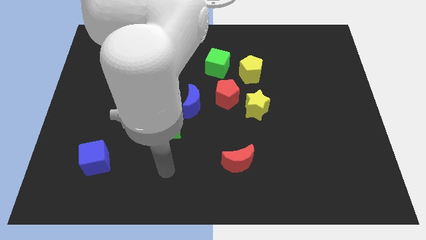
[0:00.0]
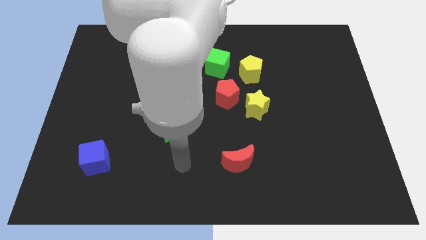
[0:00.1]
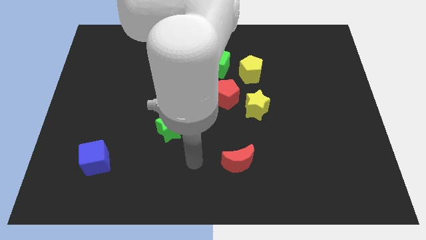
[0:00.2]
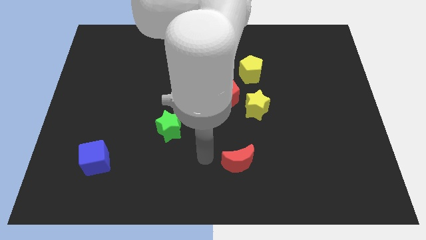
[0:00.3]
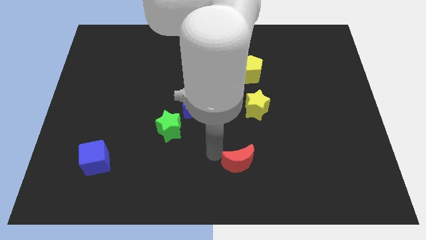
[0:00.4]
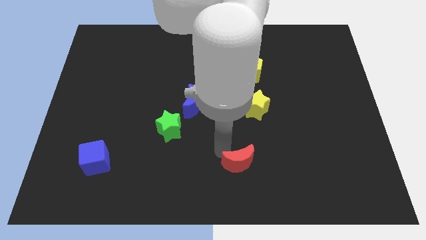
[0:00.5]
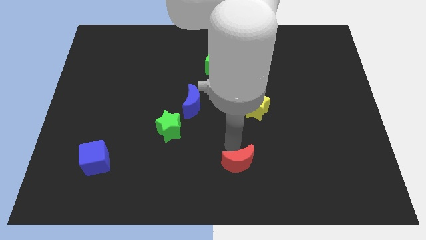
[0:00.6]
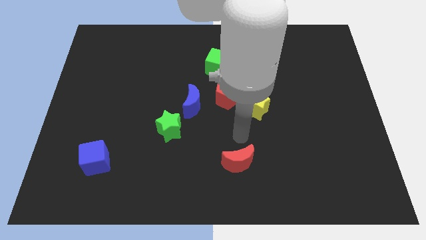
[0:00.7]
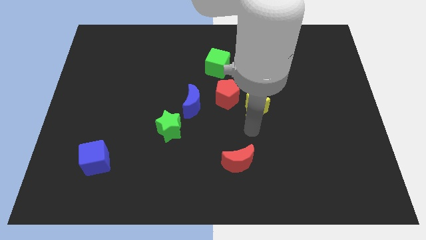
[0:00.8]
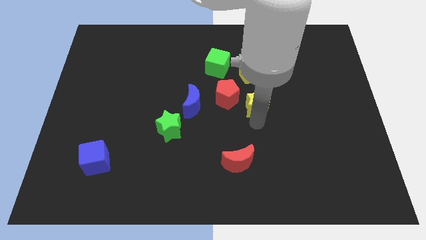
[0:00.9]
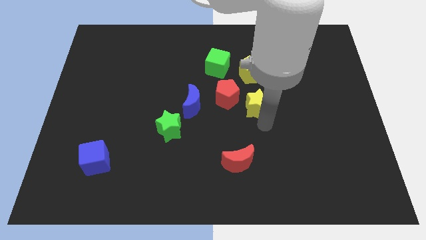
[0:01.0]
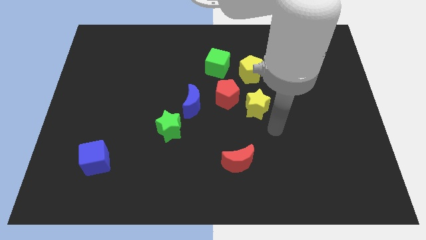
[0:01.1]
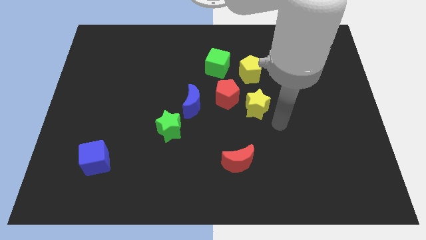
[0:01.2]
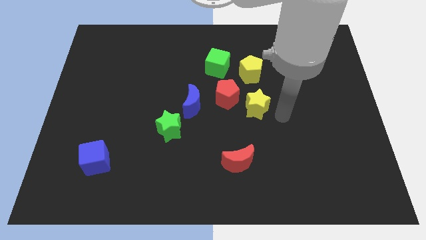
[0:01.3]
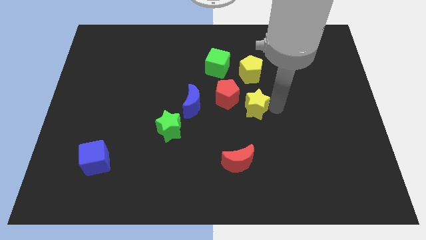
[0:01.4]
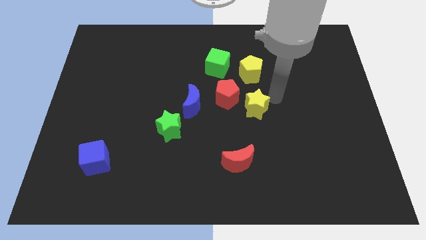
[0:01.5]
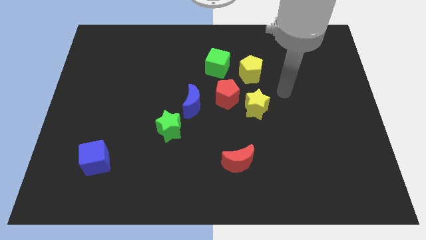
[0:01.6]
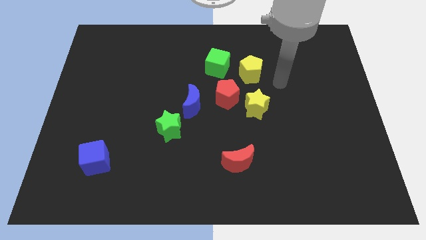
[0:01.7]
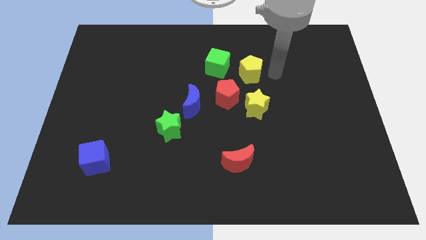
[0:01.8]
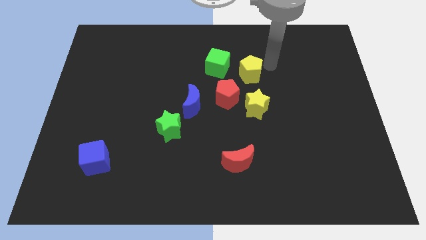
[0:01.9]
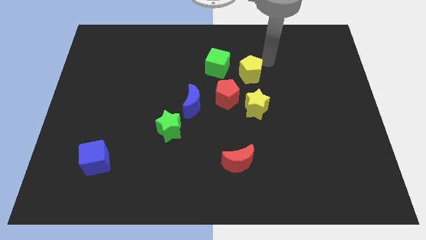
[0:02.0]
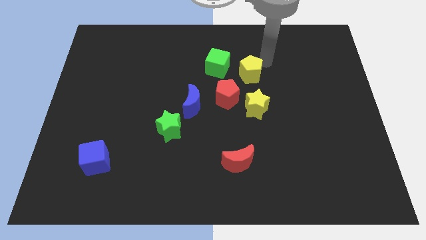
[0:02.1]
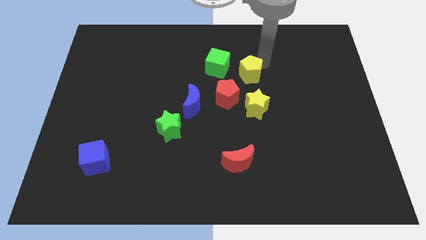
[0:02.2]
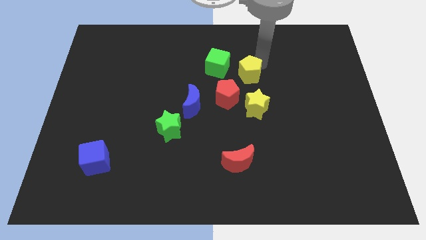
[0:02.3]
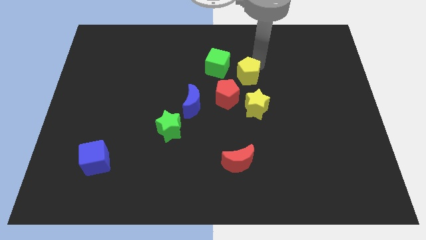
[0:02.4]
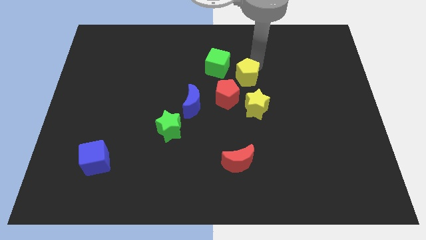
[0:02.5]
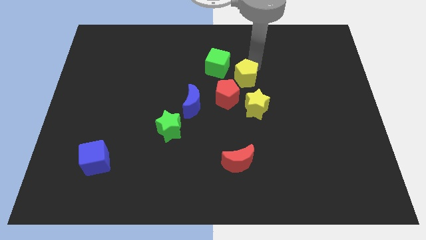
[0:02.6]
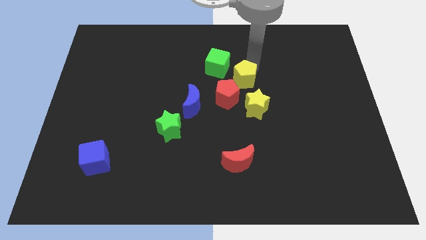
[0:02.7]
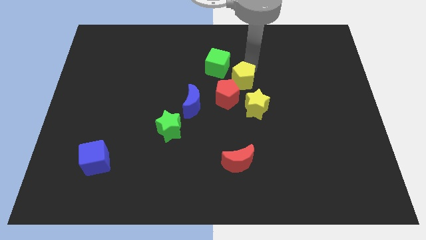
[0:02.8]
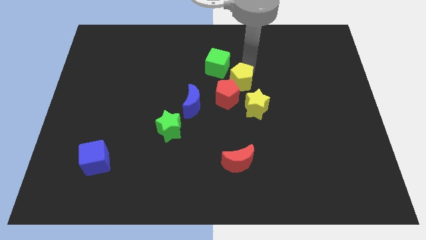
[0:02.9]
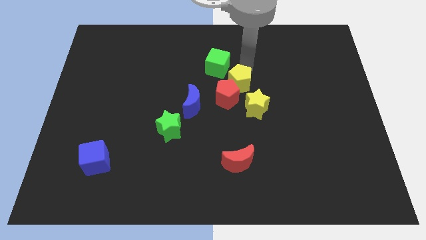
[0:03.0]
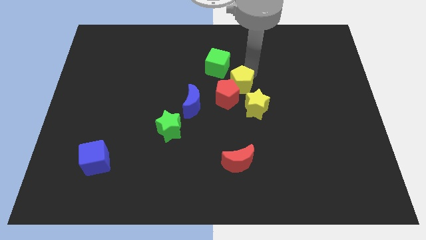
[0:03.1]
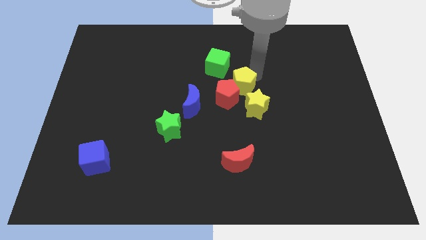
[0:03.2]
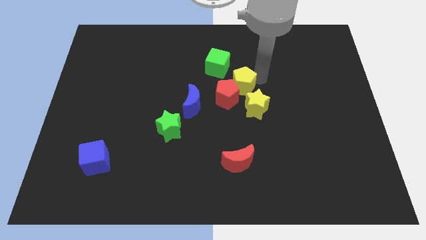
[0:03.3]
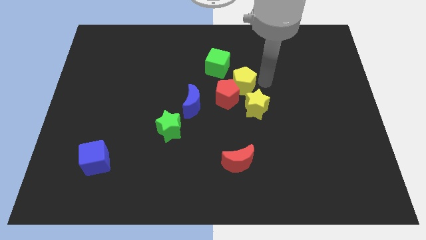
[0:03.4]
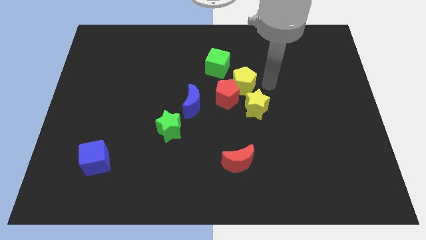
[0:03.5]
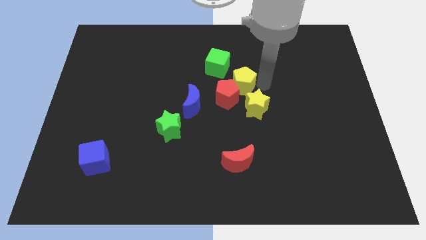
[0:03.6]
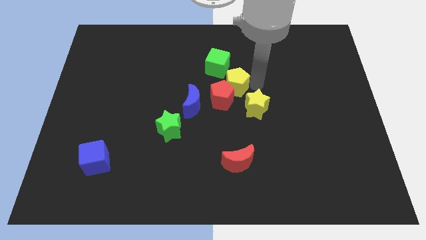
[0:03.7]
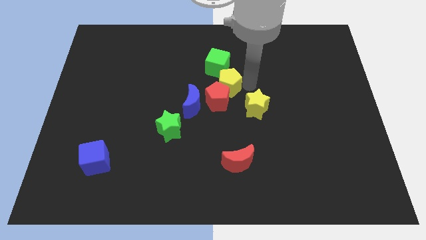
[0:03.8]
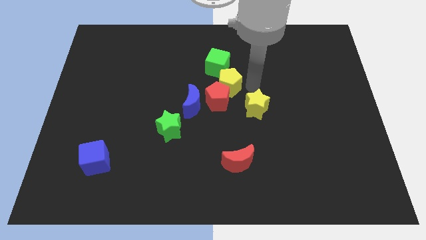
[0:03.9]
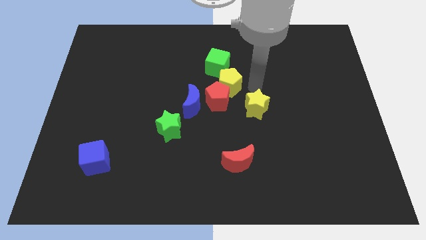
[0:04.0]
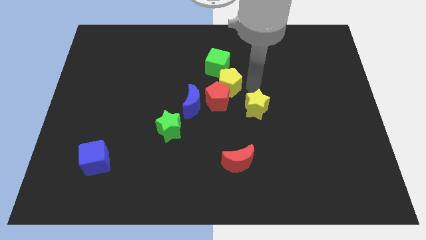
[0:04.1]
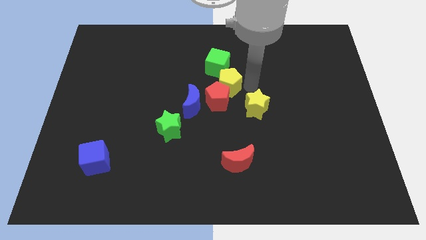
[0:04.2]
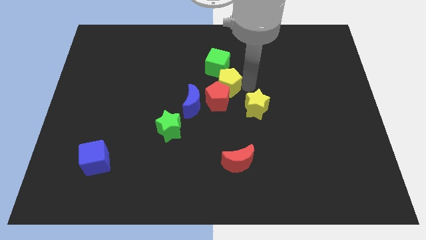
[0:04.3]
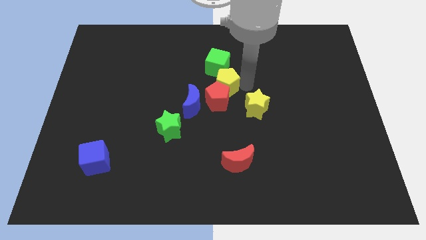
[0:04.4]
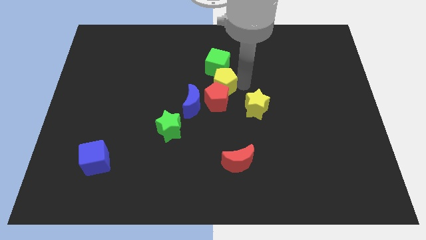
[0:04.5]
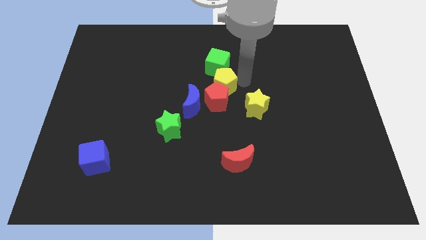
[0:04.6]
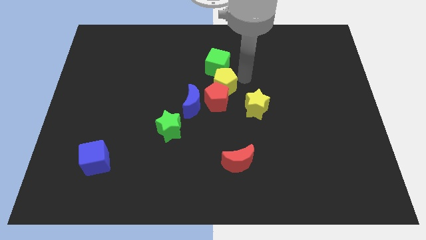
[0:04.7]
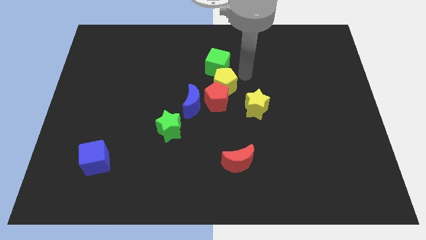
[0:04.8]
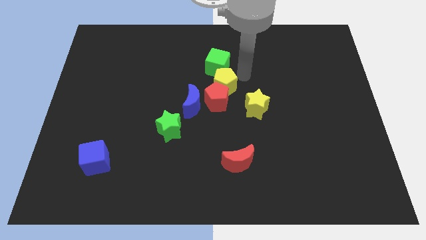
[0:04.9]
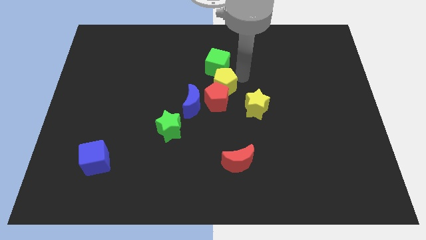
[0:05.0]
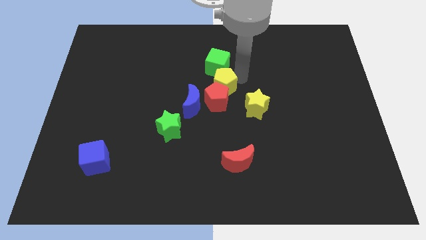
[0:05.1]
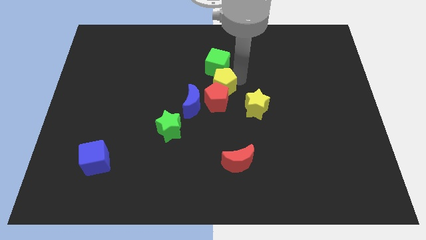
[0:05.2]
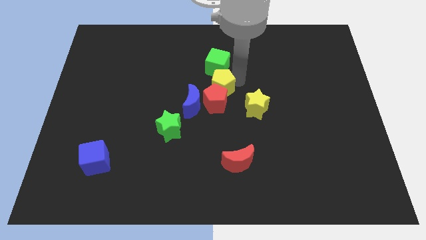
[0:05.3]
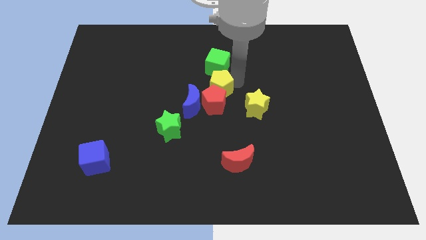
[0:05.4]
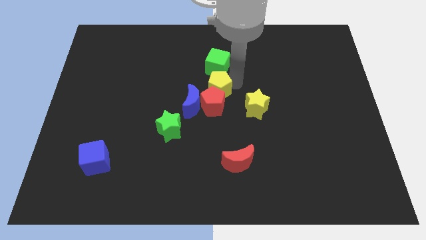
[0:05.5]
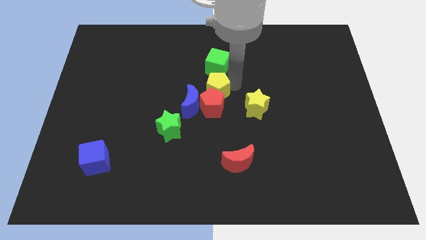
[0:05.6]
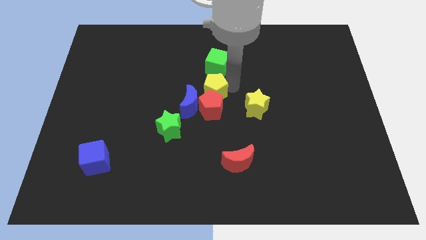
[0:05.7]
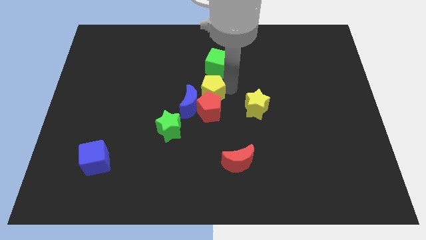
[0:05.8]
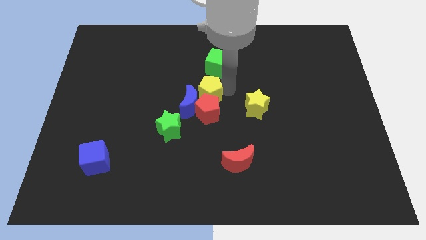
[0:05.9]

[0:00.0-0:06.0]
put the yellow pentagon next to the blue moon

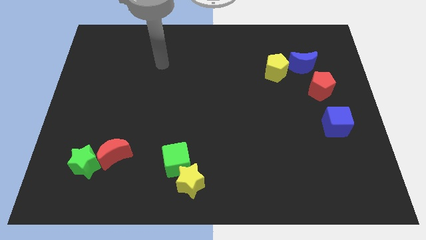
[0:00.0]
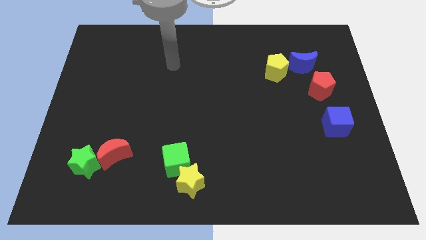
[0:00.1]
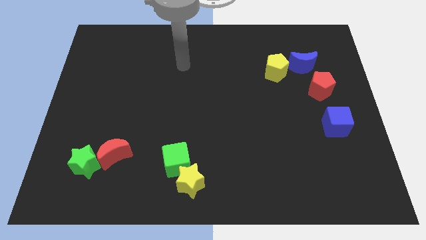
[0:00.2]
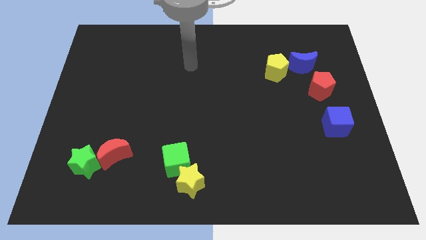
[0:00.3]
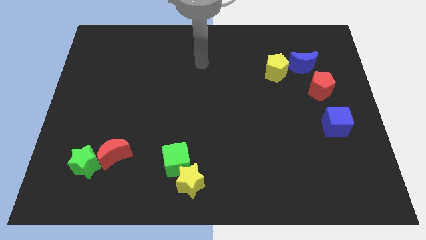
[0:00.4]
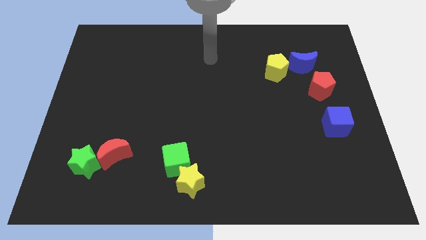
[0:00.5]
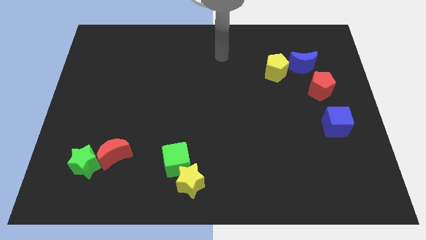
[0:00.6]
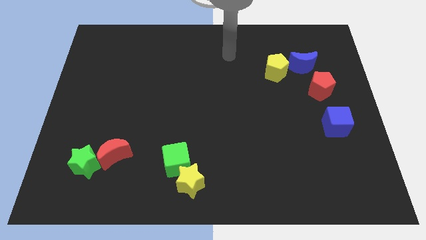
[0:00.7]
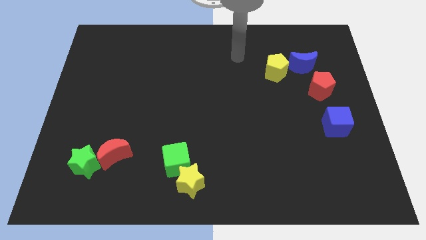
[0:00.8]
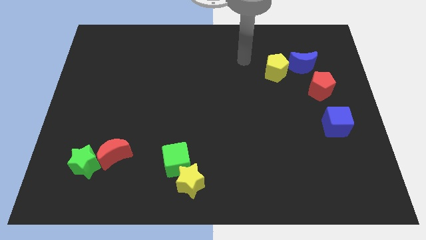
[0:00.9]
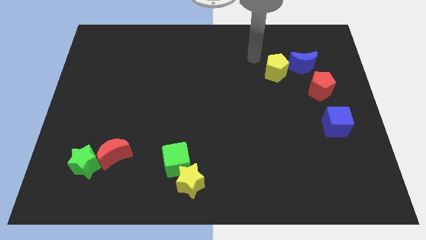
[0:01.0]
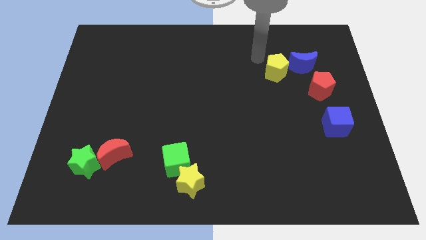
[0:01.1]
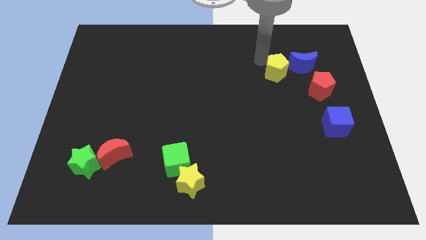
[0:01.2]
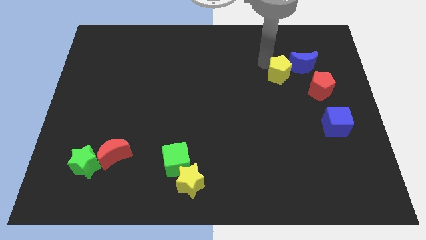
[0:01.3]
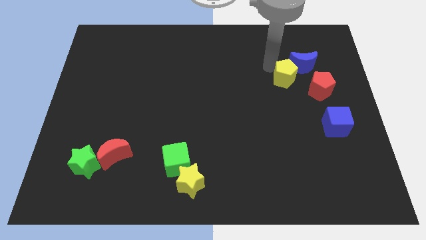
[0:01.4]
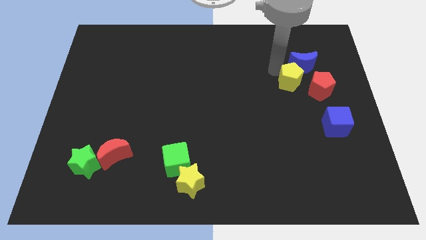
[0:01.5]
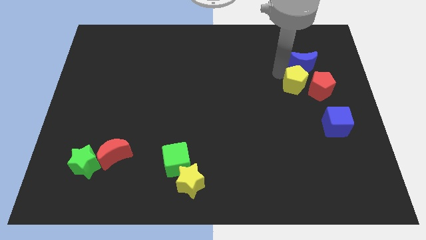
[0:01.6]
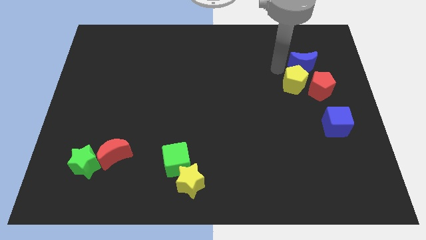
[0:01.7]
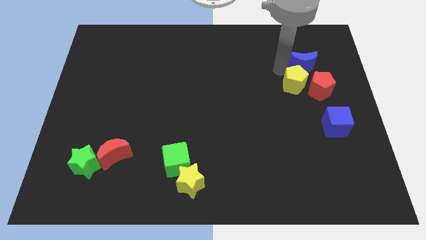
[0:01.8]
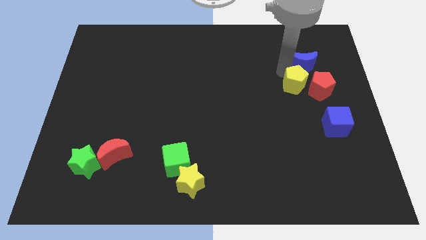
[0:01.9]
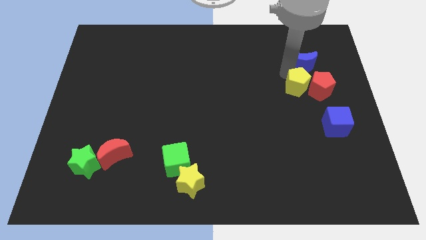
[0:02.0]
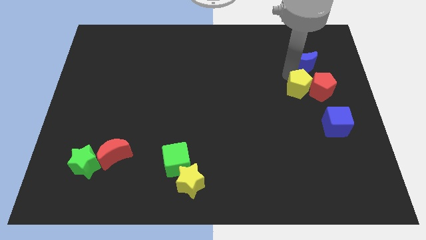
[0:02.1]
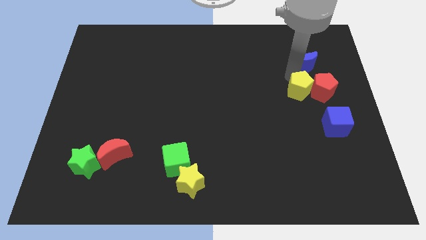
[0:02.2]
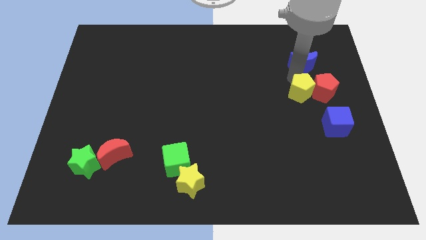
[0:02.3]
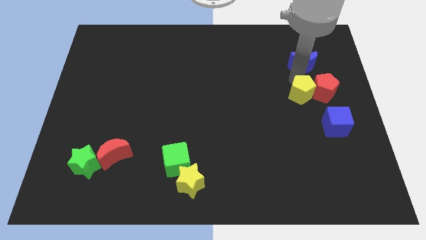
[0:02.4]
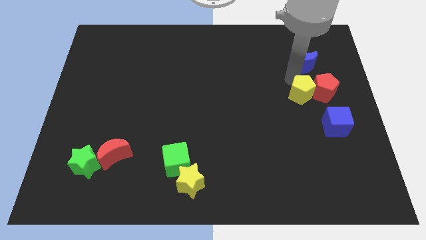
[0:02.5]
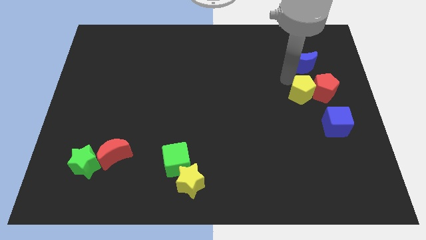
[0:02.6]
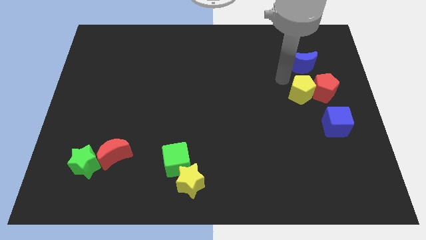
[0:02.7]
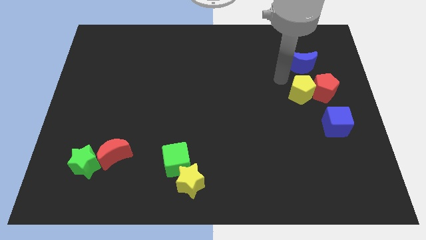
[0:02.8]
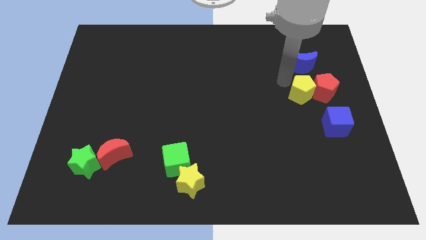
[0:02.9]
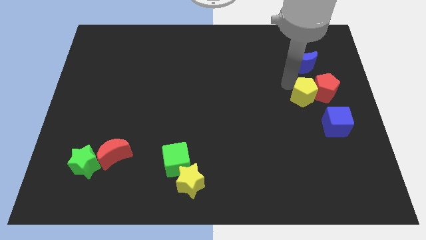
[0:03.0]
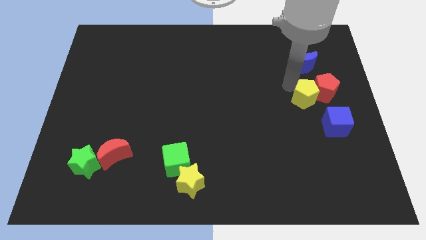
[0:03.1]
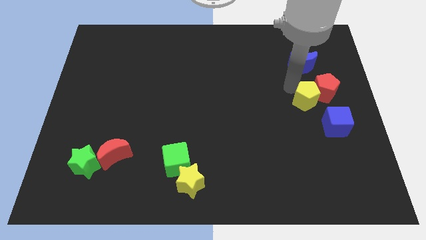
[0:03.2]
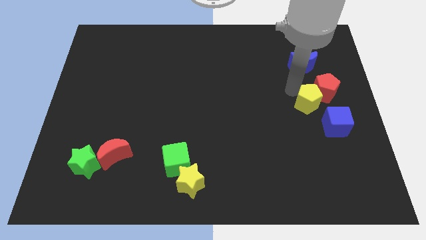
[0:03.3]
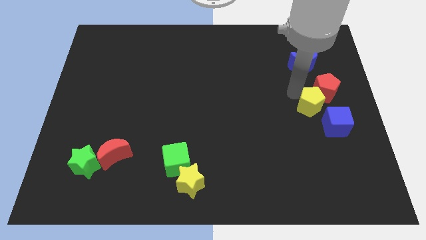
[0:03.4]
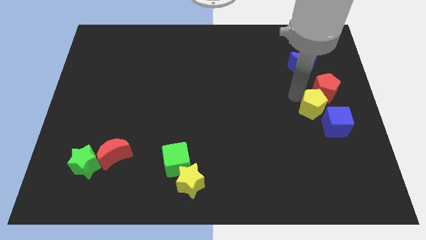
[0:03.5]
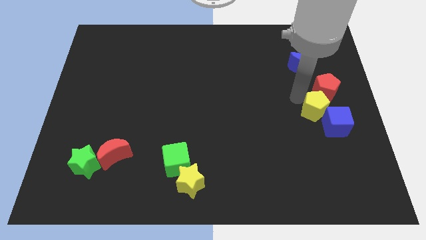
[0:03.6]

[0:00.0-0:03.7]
slide the yellow pentagon next to the blue cube
